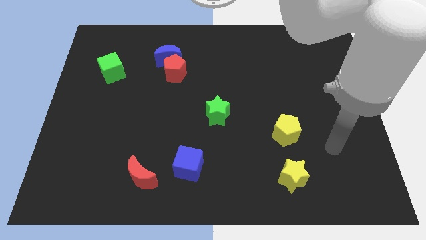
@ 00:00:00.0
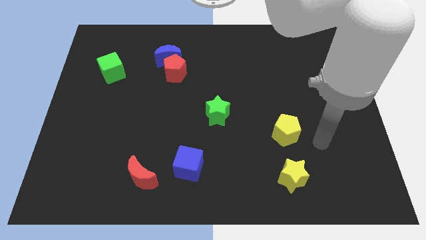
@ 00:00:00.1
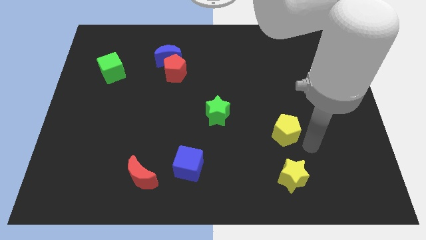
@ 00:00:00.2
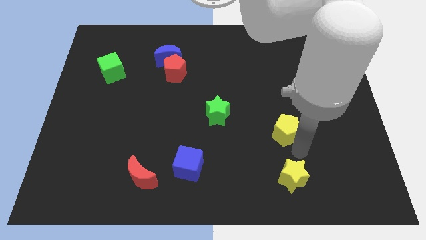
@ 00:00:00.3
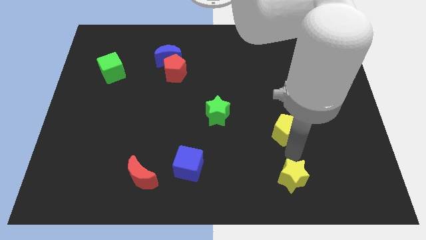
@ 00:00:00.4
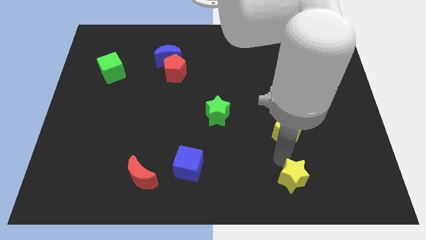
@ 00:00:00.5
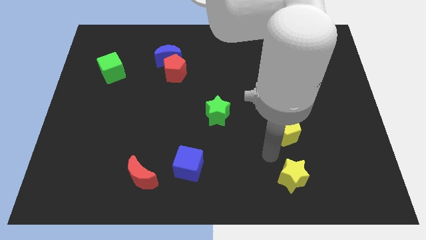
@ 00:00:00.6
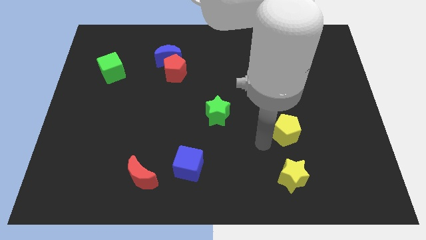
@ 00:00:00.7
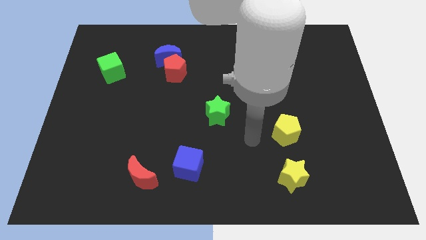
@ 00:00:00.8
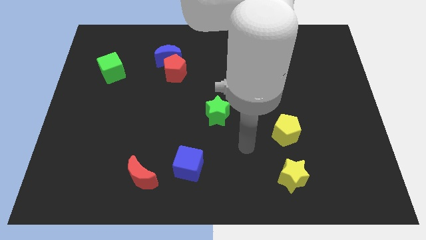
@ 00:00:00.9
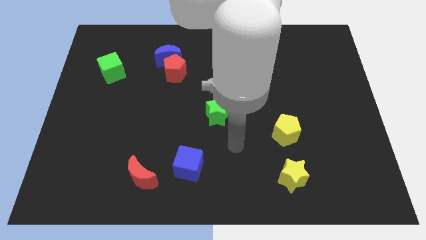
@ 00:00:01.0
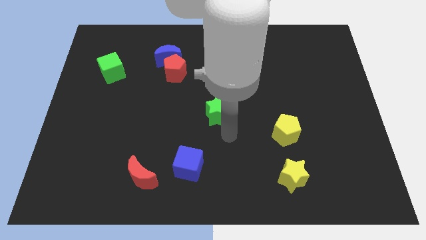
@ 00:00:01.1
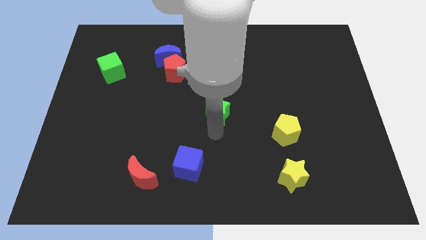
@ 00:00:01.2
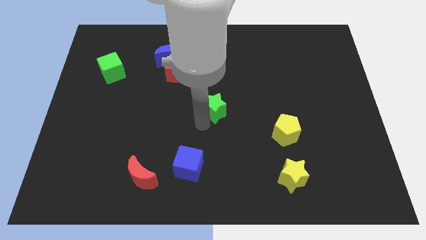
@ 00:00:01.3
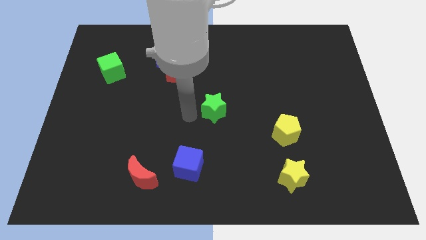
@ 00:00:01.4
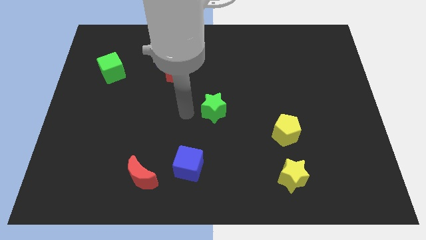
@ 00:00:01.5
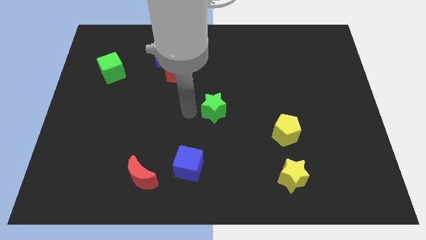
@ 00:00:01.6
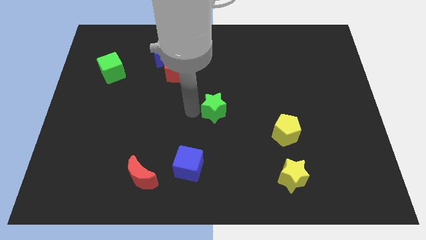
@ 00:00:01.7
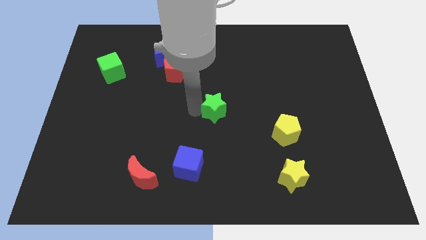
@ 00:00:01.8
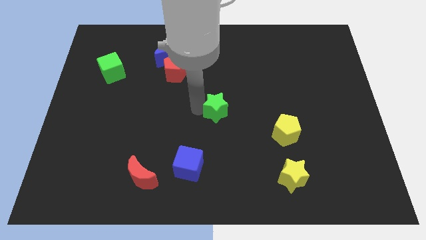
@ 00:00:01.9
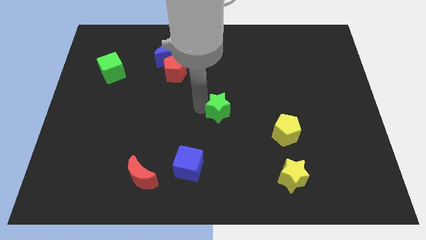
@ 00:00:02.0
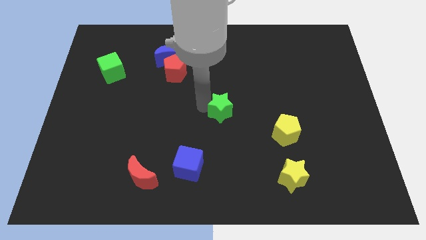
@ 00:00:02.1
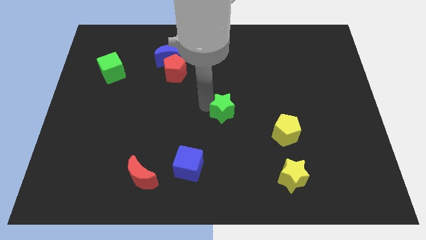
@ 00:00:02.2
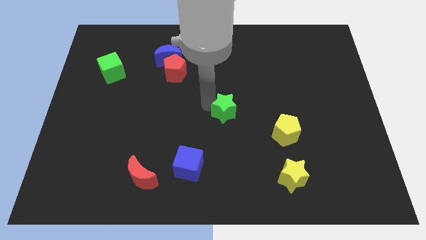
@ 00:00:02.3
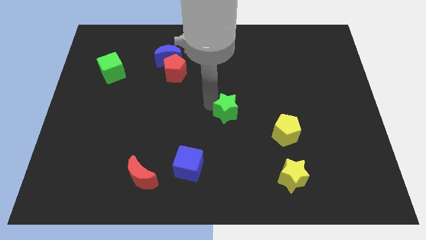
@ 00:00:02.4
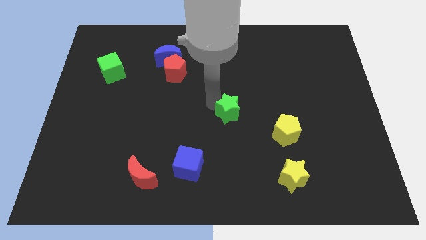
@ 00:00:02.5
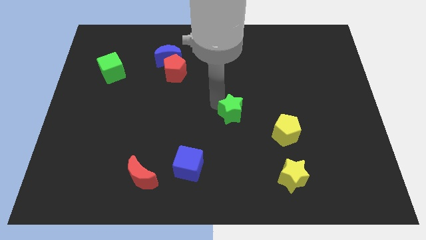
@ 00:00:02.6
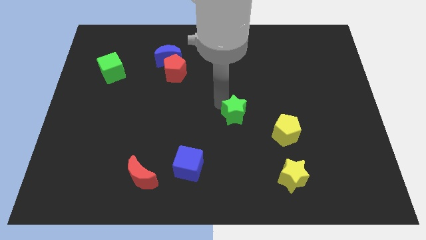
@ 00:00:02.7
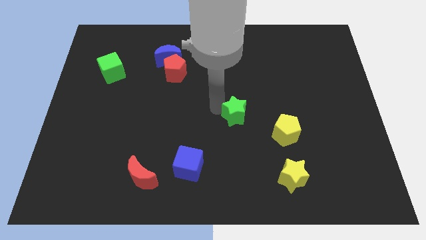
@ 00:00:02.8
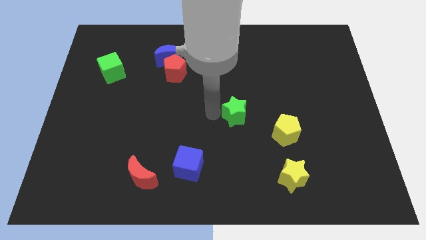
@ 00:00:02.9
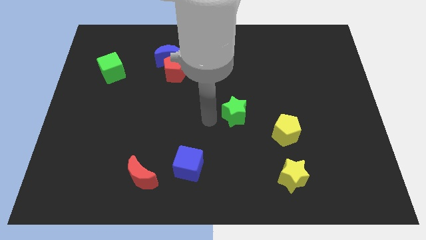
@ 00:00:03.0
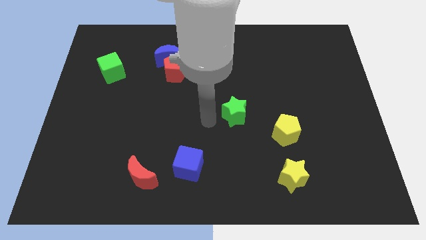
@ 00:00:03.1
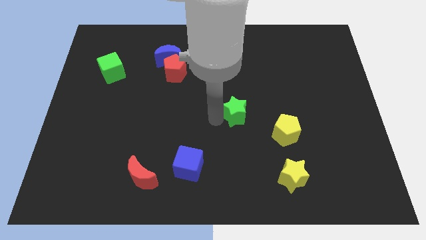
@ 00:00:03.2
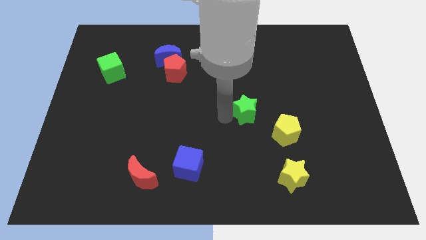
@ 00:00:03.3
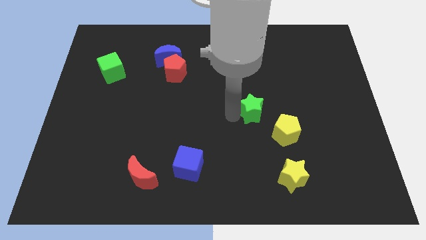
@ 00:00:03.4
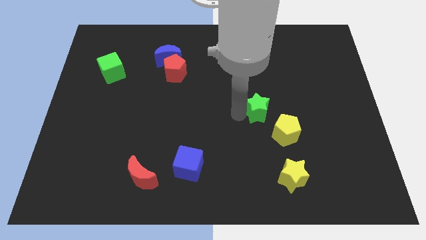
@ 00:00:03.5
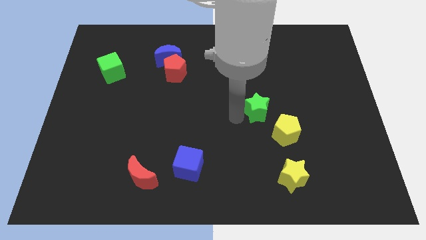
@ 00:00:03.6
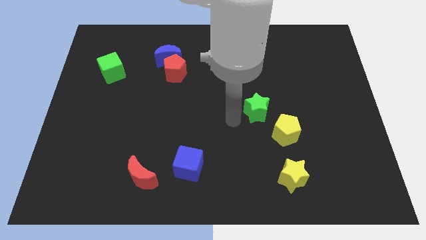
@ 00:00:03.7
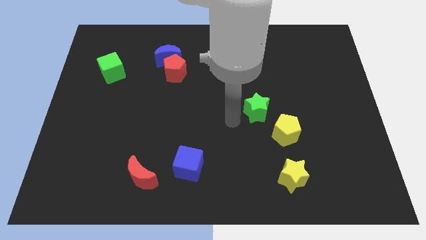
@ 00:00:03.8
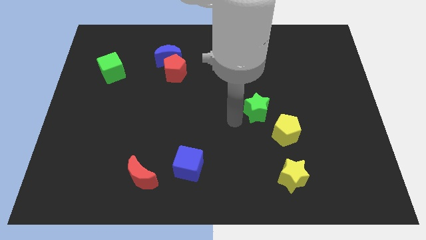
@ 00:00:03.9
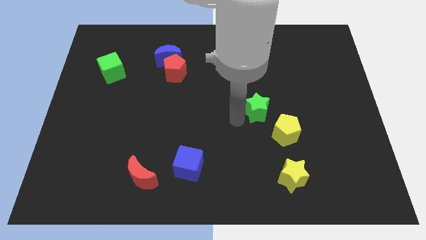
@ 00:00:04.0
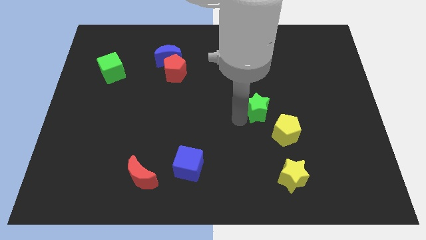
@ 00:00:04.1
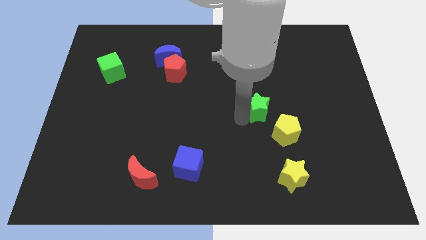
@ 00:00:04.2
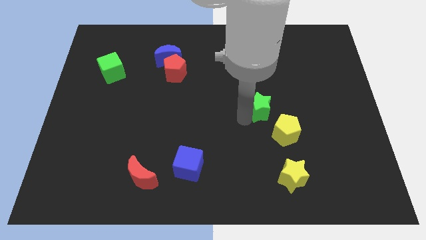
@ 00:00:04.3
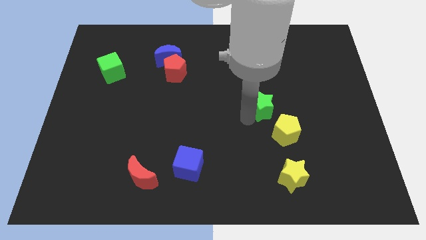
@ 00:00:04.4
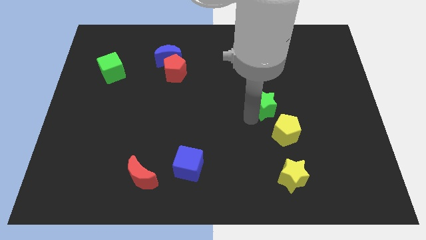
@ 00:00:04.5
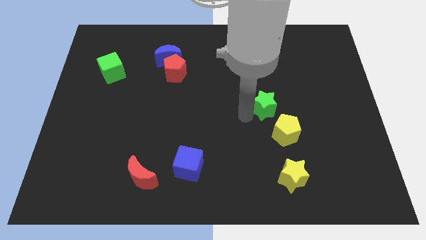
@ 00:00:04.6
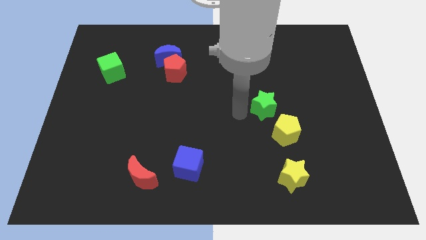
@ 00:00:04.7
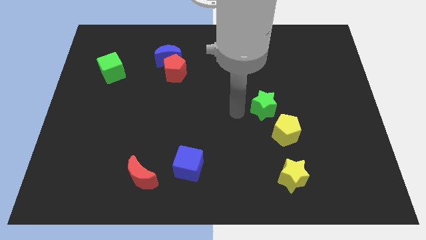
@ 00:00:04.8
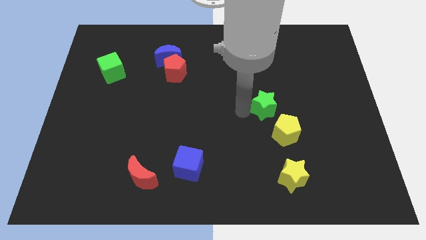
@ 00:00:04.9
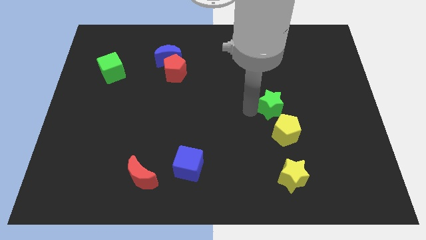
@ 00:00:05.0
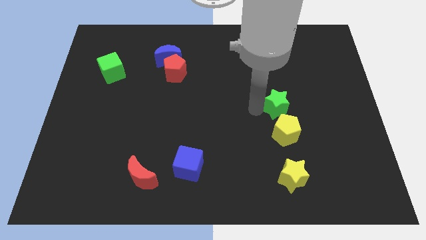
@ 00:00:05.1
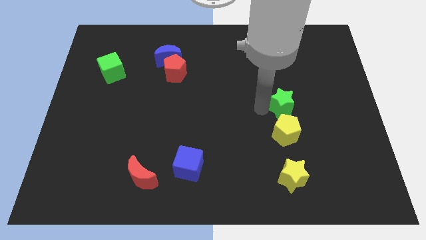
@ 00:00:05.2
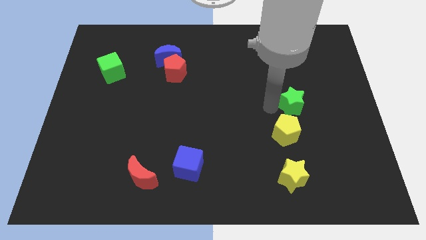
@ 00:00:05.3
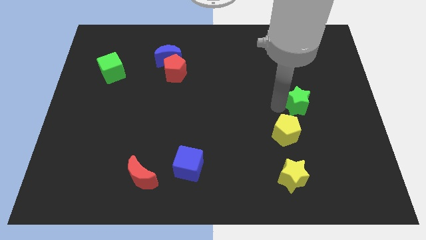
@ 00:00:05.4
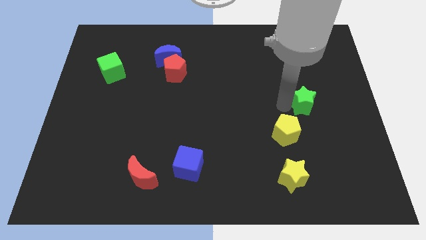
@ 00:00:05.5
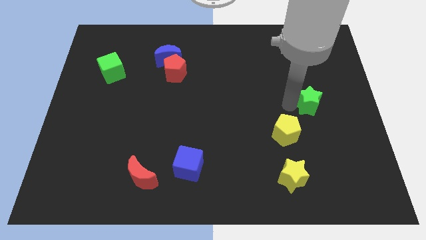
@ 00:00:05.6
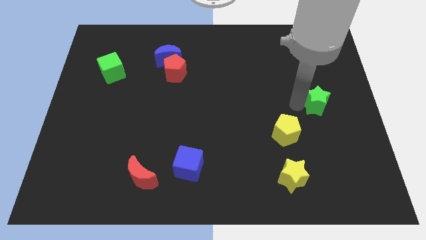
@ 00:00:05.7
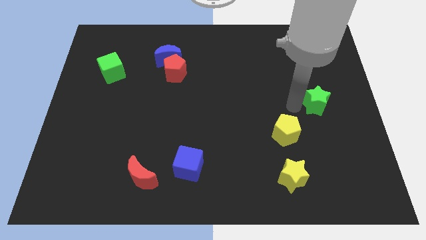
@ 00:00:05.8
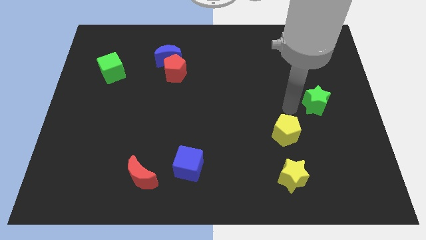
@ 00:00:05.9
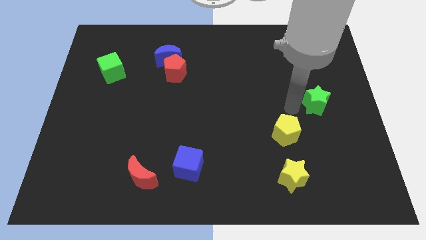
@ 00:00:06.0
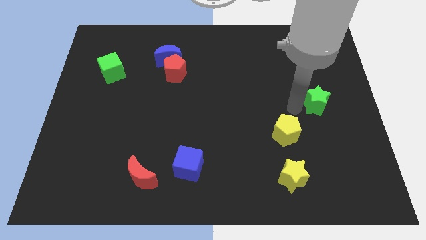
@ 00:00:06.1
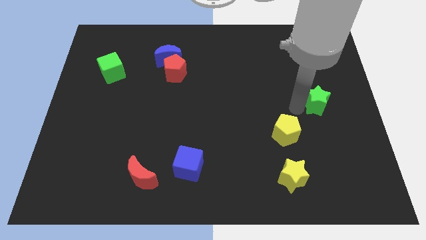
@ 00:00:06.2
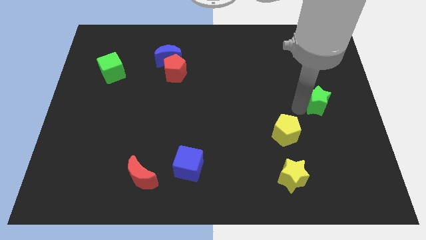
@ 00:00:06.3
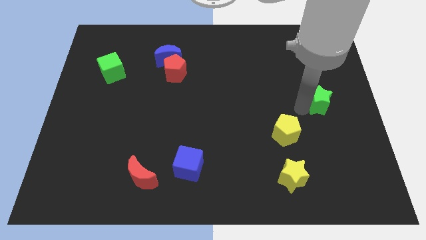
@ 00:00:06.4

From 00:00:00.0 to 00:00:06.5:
slide the green star to the right side
